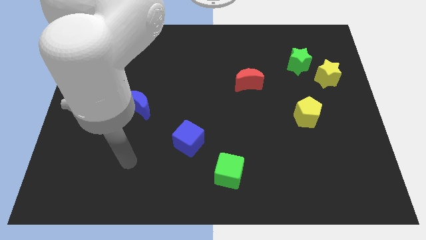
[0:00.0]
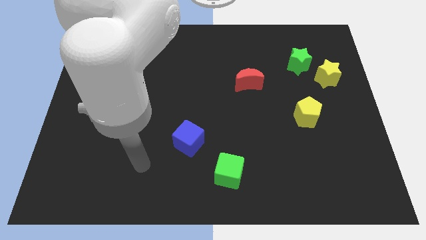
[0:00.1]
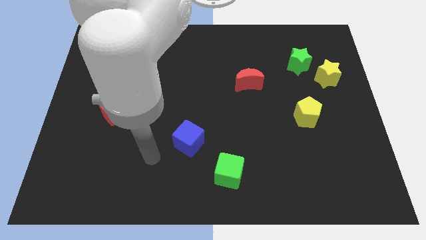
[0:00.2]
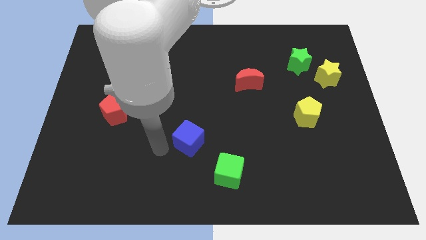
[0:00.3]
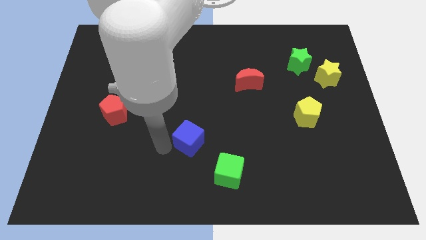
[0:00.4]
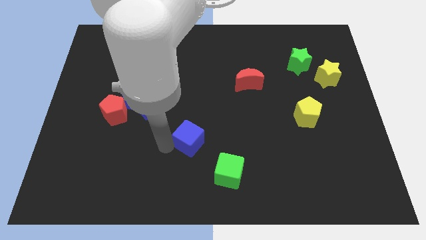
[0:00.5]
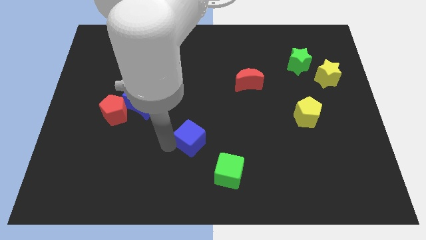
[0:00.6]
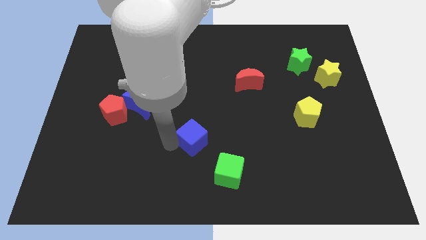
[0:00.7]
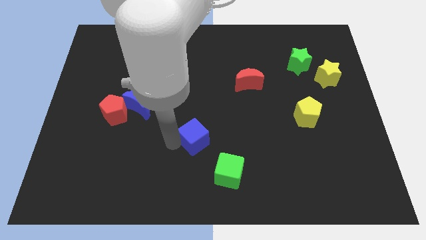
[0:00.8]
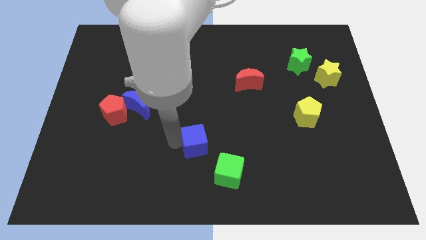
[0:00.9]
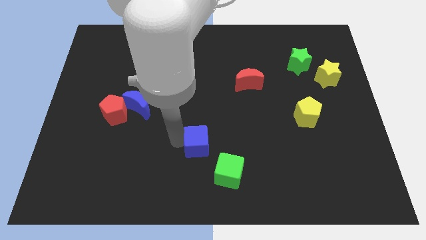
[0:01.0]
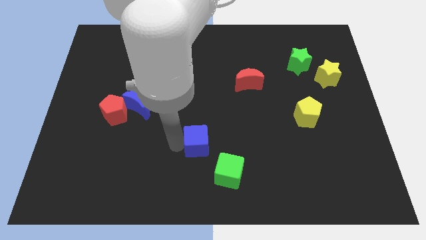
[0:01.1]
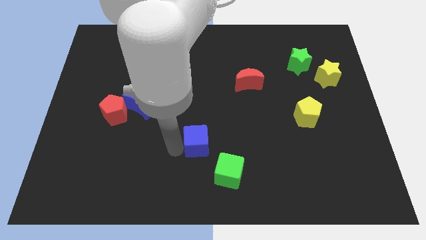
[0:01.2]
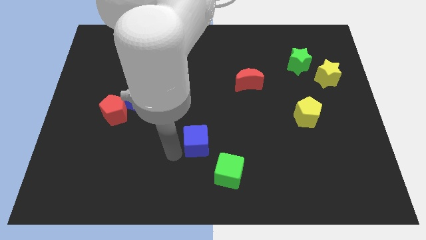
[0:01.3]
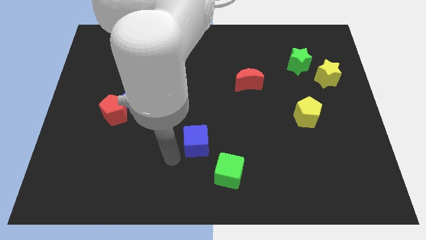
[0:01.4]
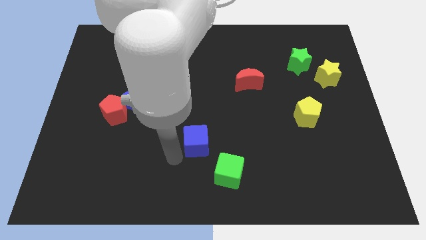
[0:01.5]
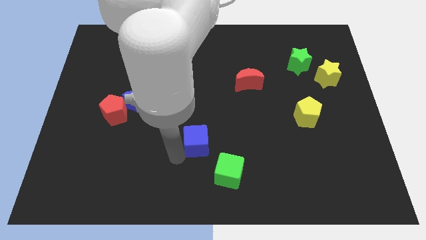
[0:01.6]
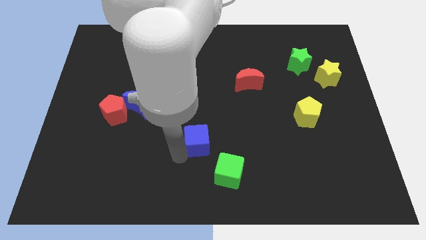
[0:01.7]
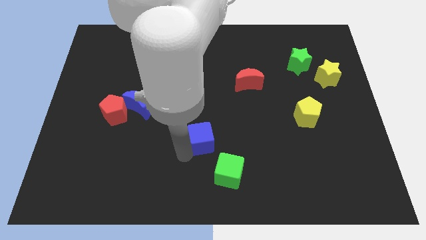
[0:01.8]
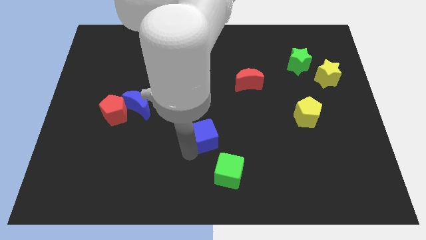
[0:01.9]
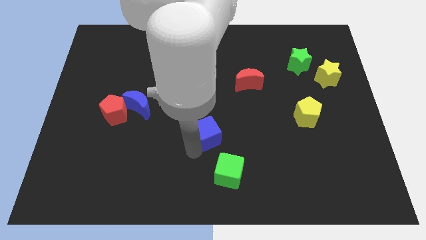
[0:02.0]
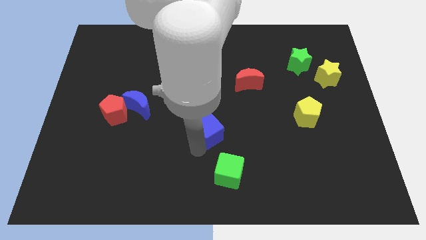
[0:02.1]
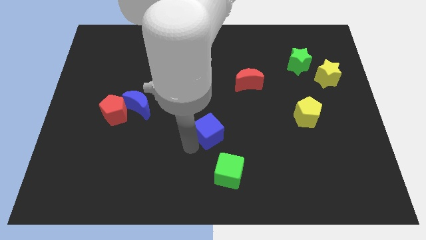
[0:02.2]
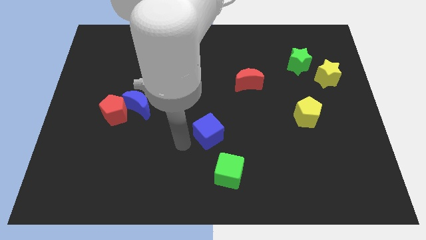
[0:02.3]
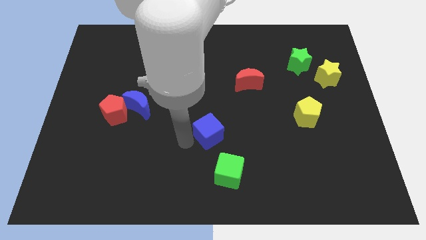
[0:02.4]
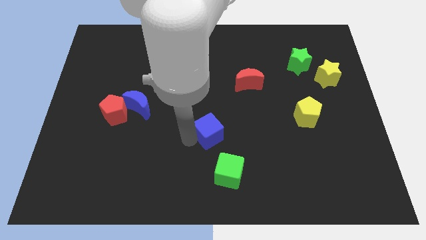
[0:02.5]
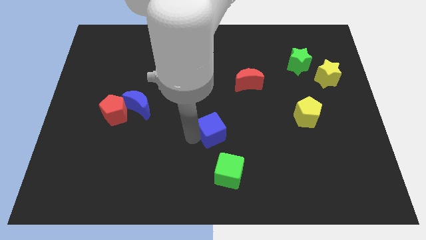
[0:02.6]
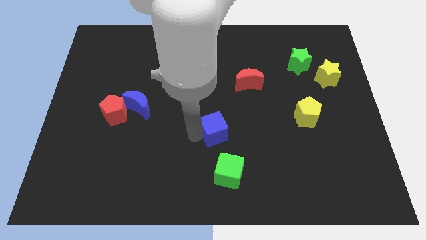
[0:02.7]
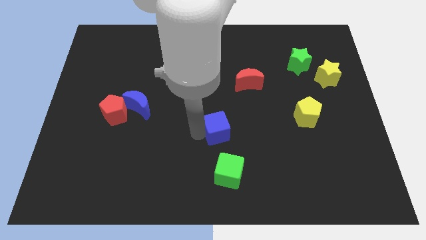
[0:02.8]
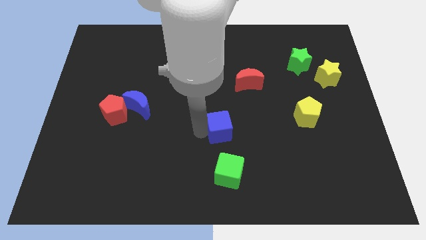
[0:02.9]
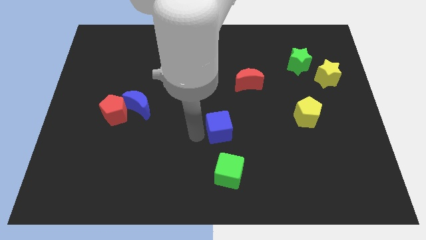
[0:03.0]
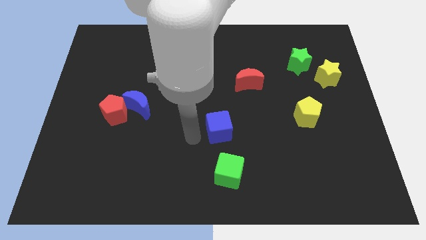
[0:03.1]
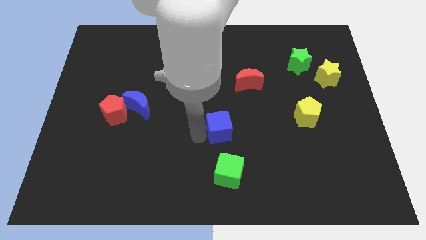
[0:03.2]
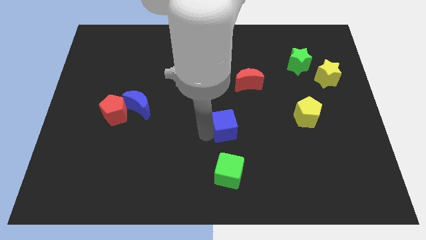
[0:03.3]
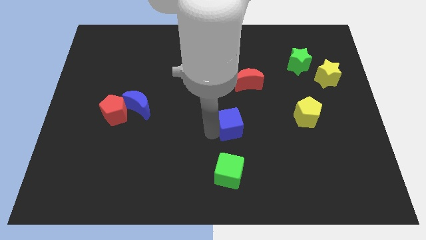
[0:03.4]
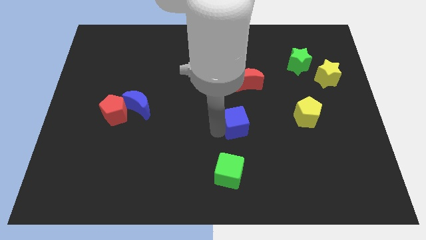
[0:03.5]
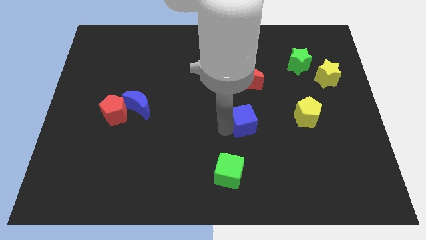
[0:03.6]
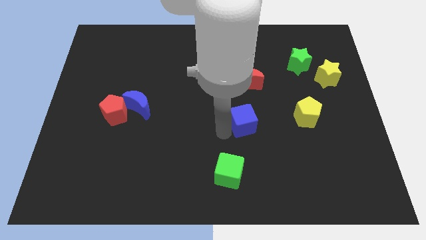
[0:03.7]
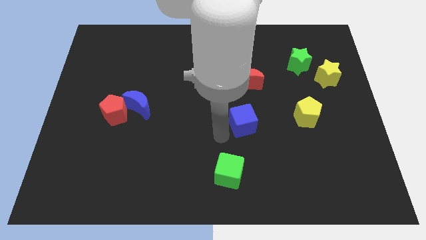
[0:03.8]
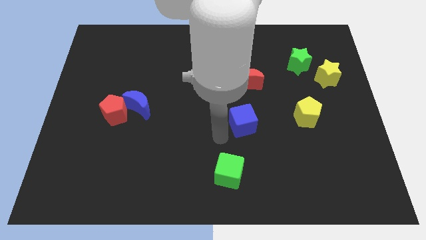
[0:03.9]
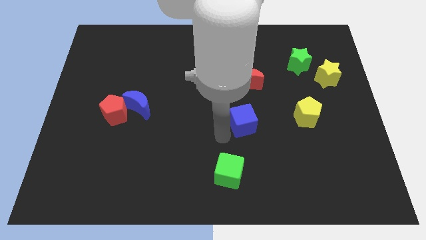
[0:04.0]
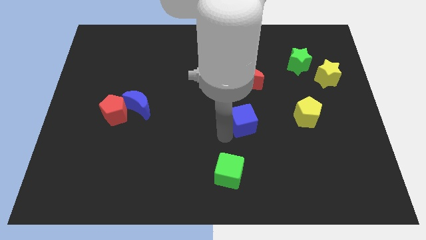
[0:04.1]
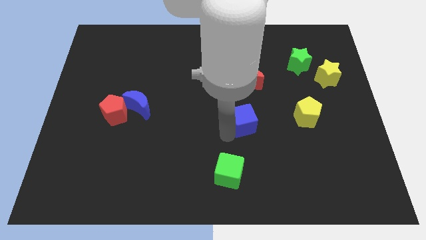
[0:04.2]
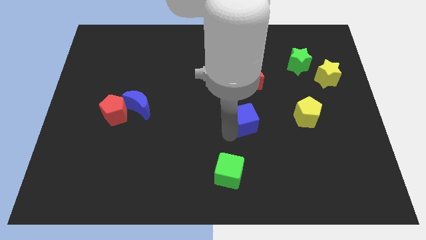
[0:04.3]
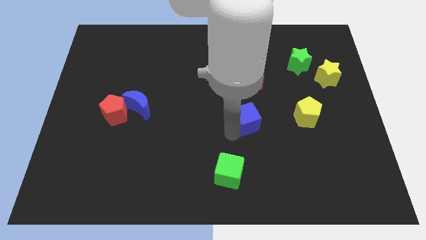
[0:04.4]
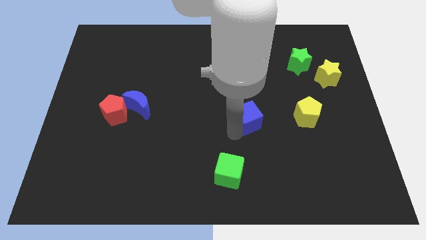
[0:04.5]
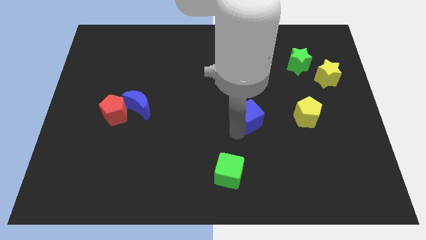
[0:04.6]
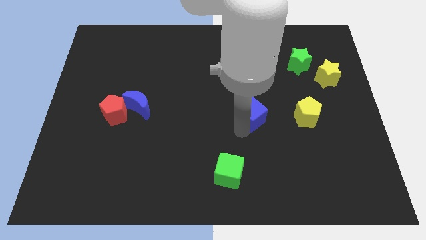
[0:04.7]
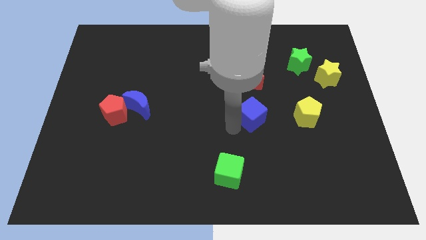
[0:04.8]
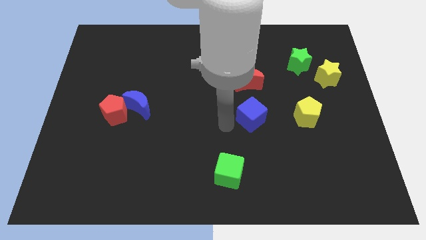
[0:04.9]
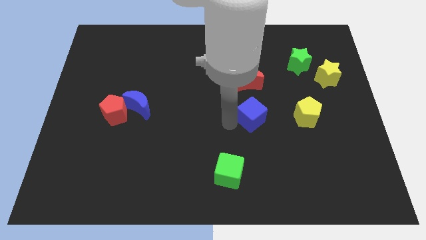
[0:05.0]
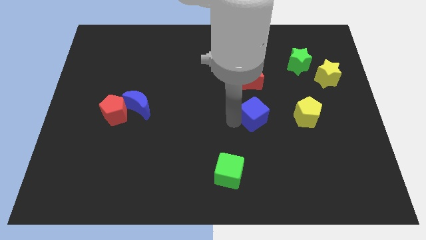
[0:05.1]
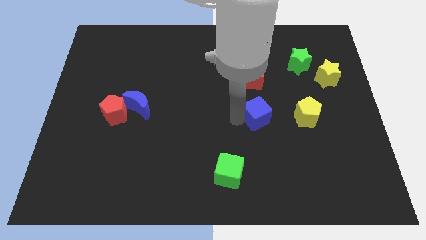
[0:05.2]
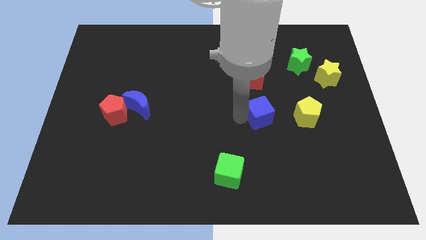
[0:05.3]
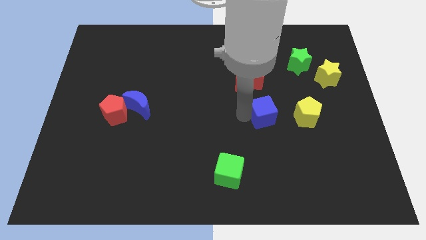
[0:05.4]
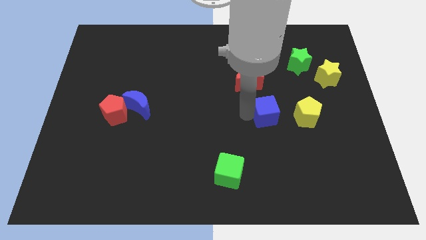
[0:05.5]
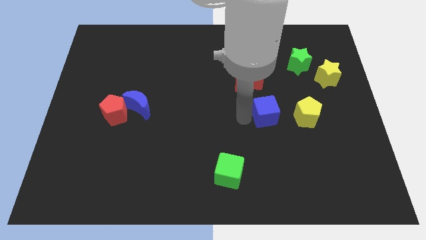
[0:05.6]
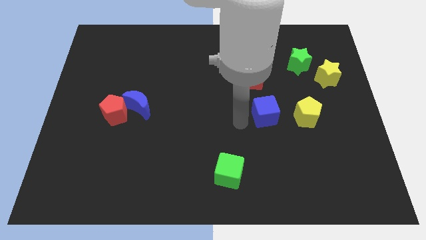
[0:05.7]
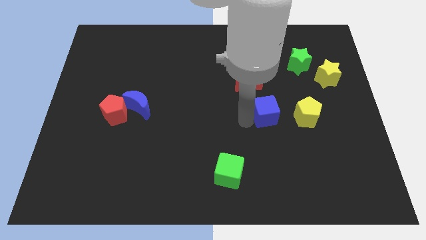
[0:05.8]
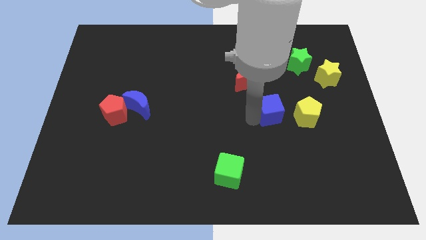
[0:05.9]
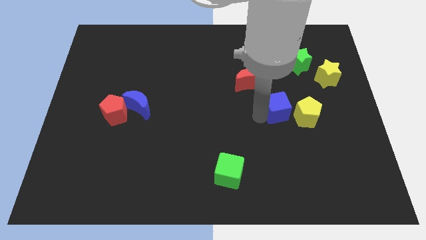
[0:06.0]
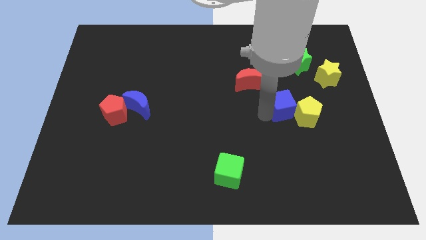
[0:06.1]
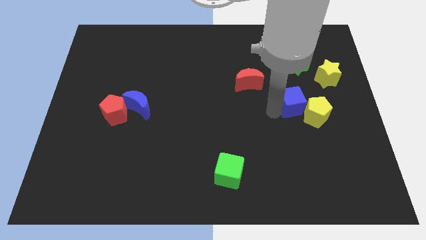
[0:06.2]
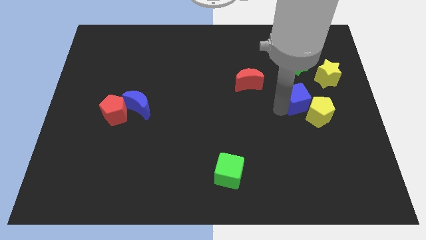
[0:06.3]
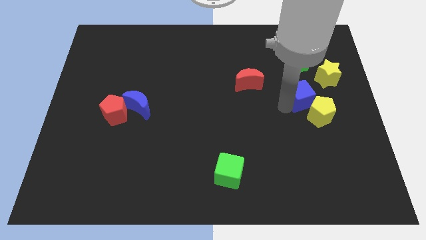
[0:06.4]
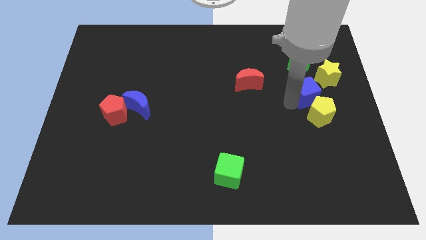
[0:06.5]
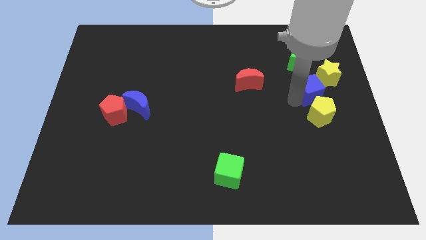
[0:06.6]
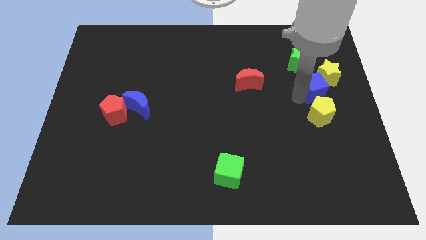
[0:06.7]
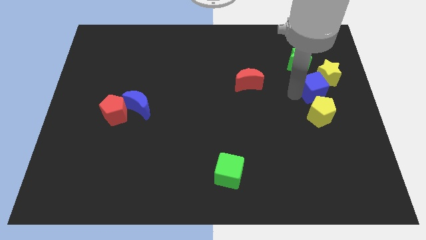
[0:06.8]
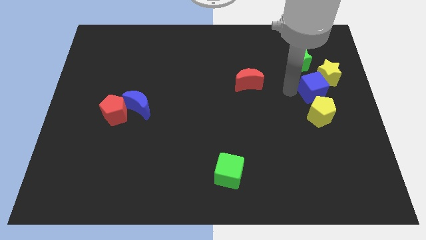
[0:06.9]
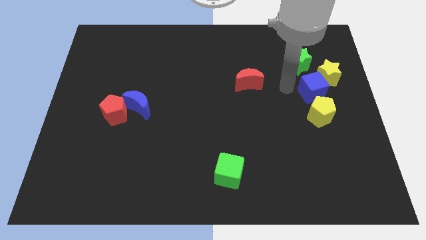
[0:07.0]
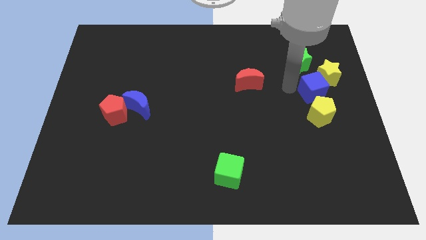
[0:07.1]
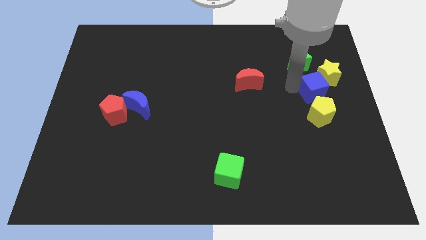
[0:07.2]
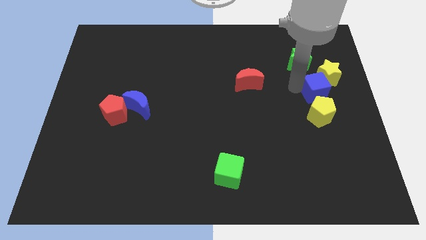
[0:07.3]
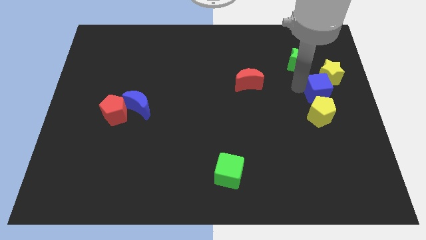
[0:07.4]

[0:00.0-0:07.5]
move the blue cube to the right side
